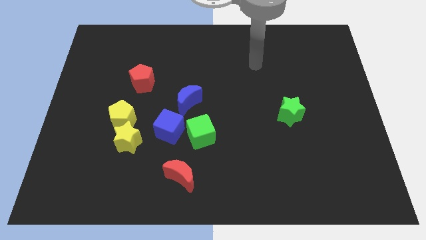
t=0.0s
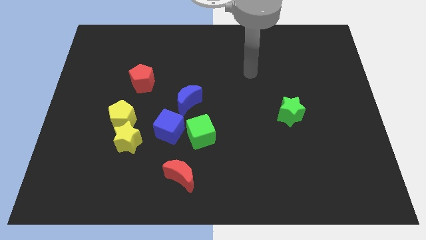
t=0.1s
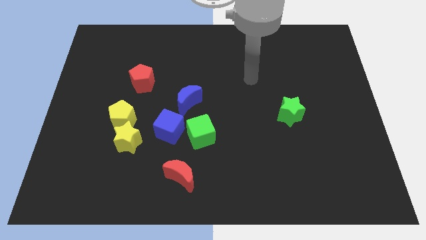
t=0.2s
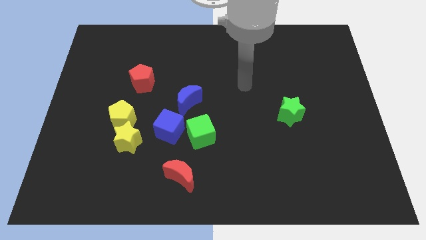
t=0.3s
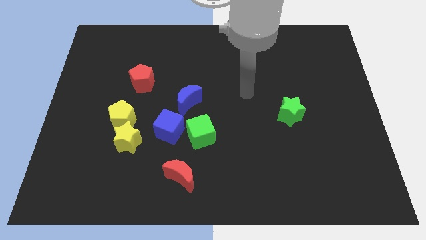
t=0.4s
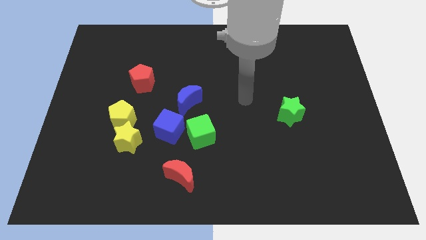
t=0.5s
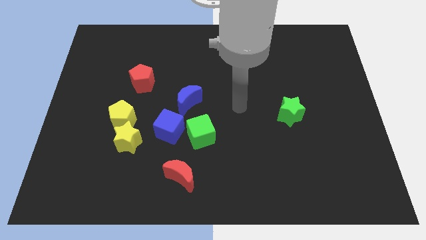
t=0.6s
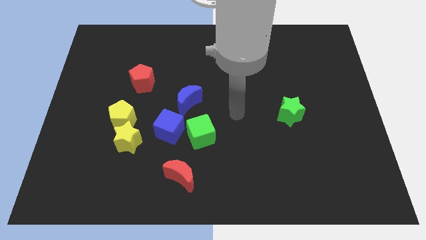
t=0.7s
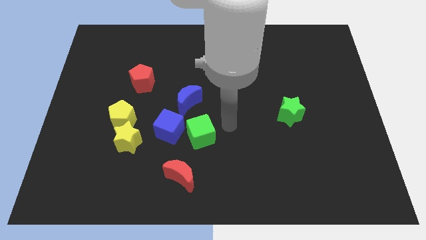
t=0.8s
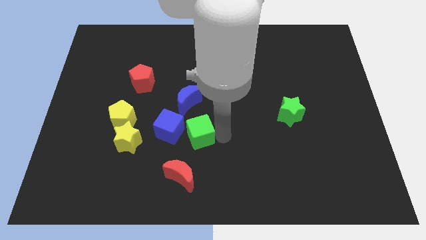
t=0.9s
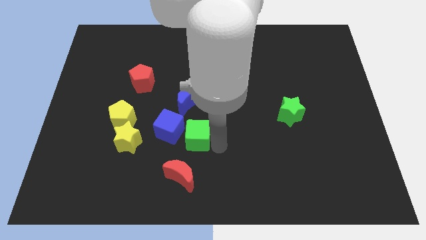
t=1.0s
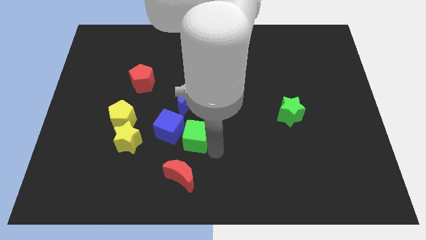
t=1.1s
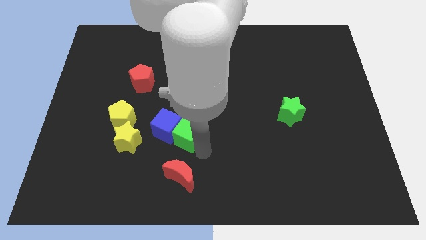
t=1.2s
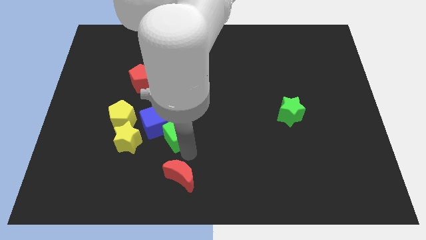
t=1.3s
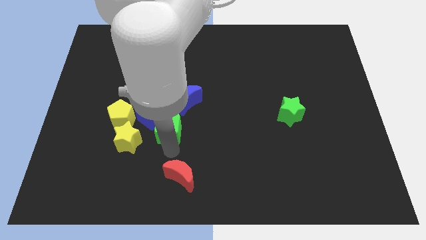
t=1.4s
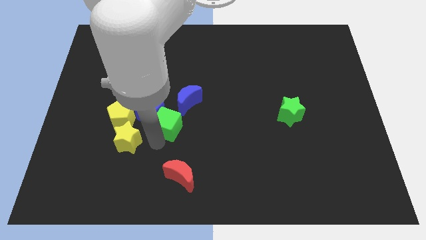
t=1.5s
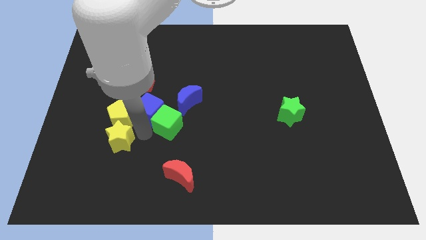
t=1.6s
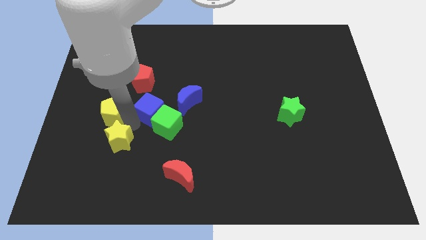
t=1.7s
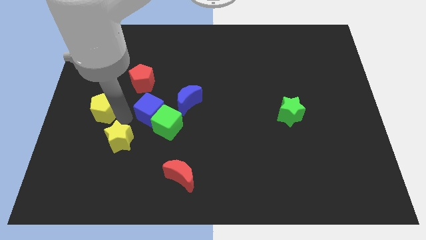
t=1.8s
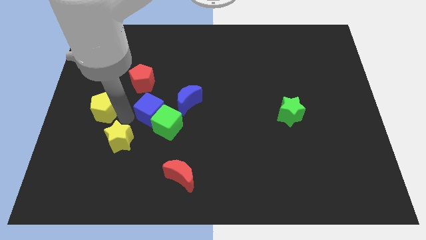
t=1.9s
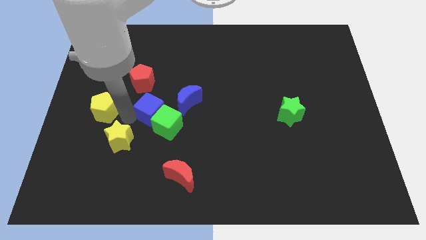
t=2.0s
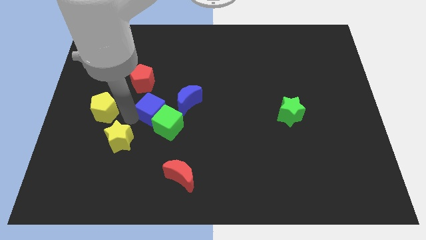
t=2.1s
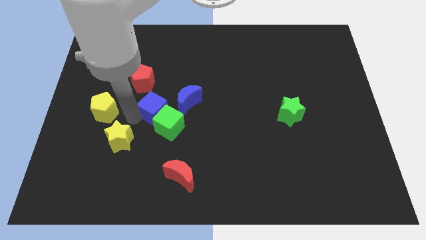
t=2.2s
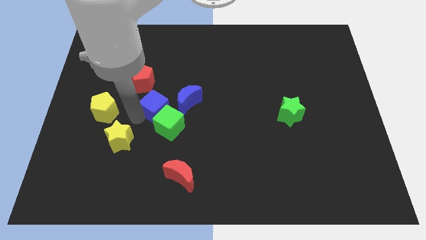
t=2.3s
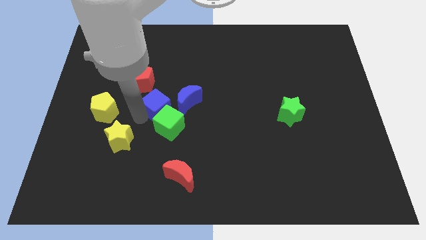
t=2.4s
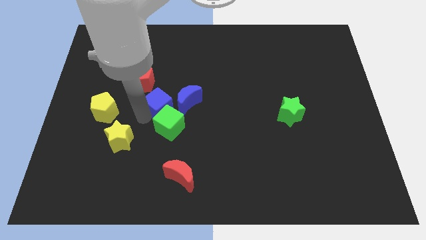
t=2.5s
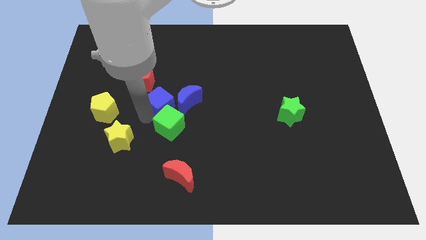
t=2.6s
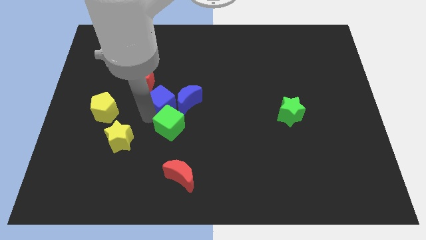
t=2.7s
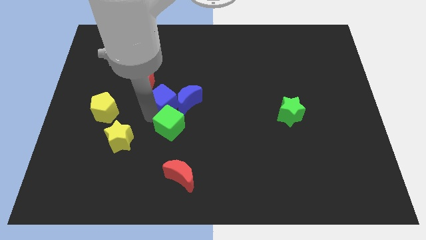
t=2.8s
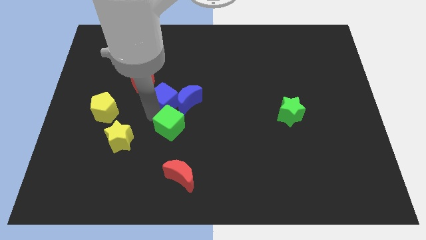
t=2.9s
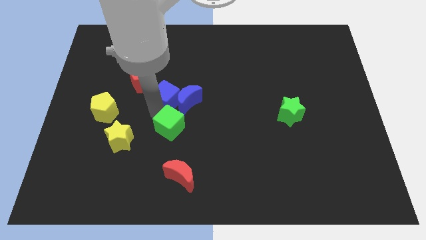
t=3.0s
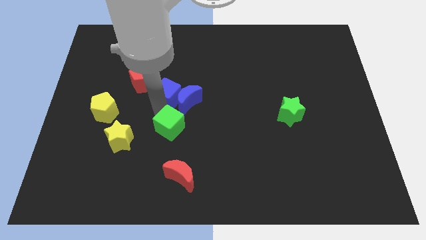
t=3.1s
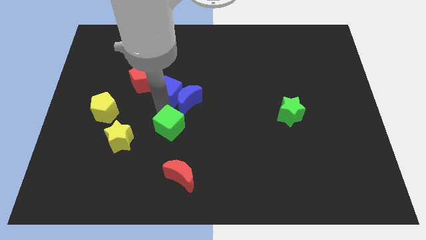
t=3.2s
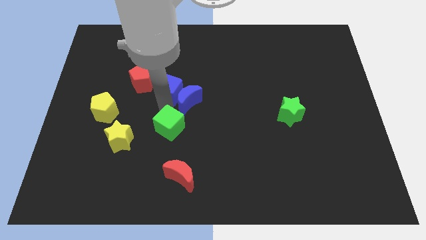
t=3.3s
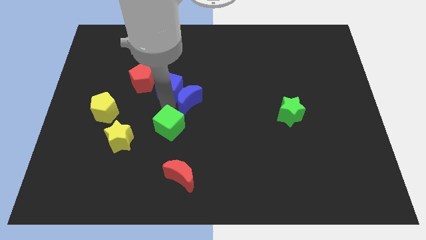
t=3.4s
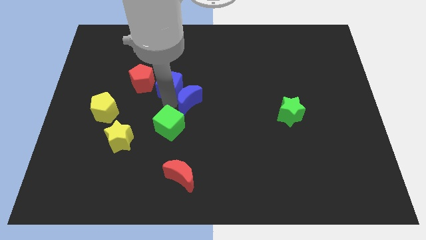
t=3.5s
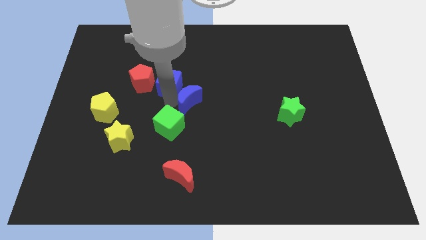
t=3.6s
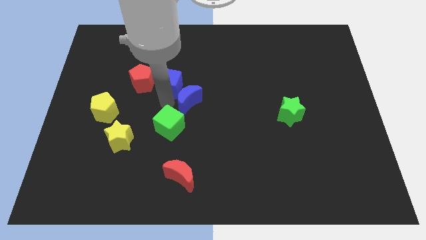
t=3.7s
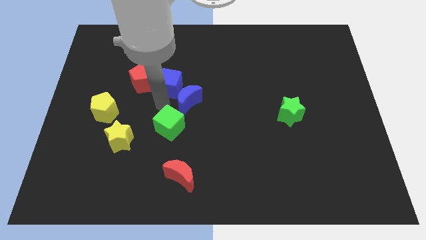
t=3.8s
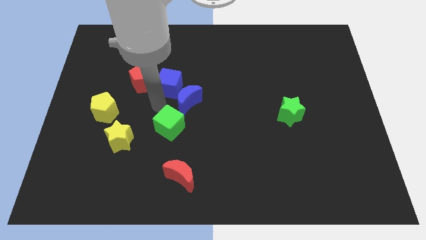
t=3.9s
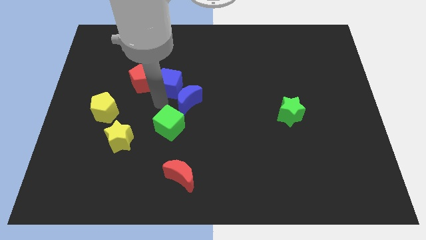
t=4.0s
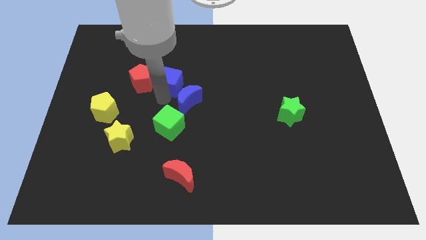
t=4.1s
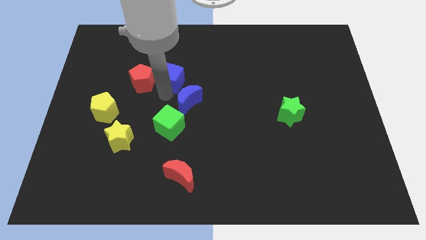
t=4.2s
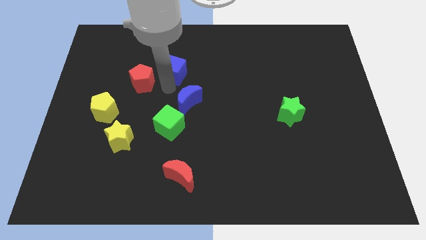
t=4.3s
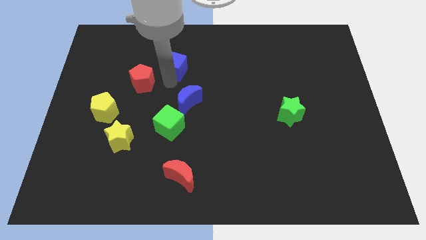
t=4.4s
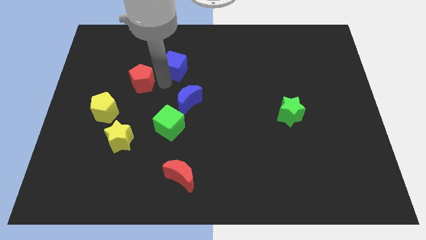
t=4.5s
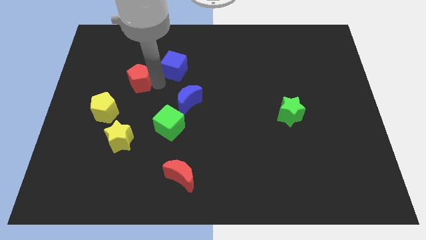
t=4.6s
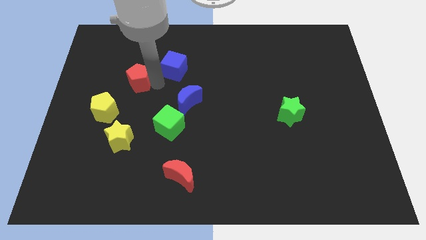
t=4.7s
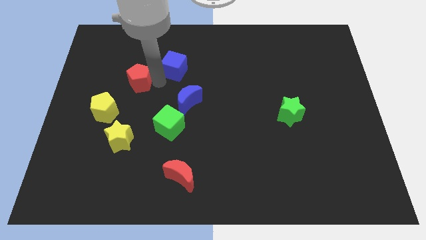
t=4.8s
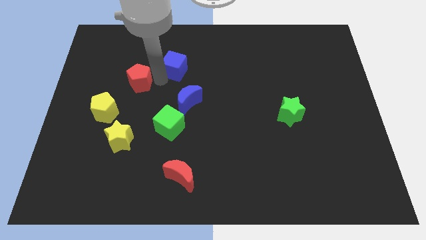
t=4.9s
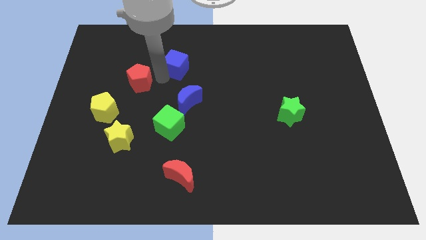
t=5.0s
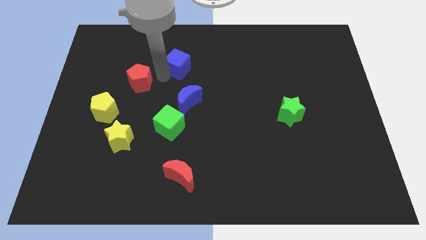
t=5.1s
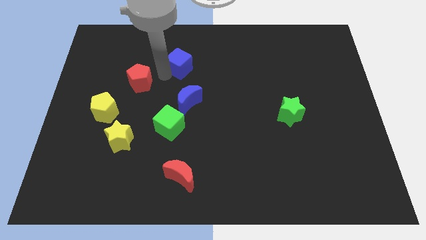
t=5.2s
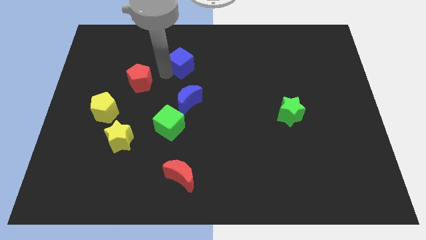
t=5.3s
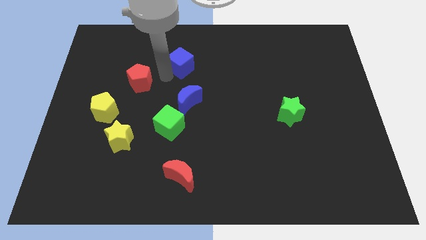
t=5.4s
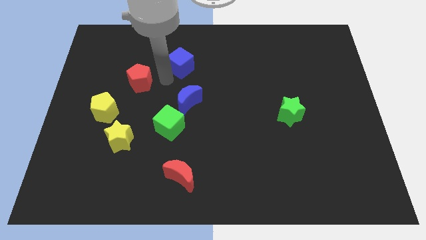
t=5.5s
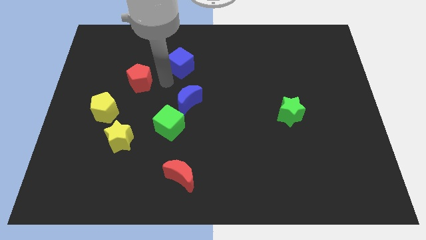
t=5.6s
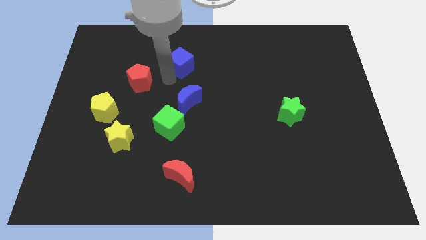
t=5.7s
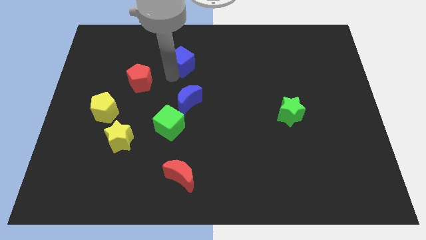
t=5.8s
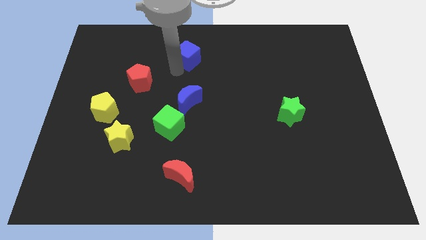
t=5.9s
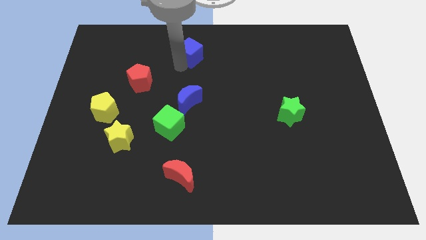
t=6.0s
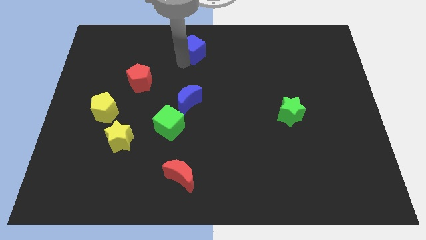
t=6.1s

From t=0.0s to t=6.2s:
slide the blue cube to the top side
